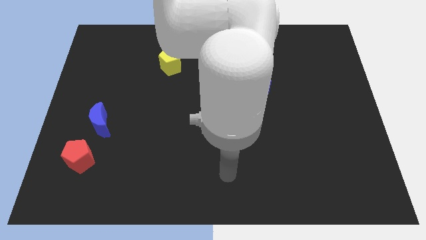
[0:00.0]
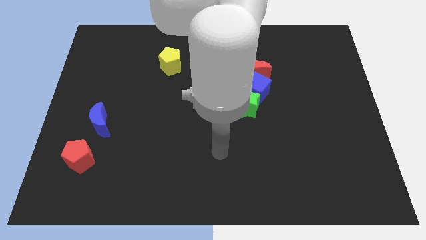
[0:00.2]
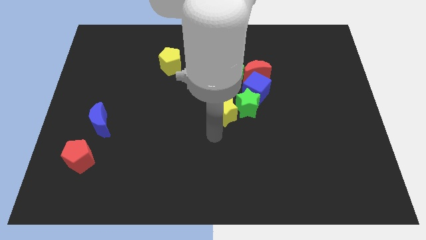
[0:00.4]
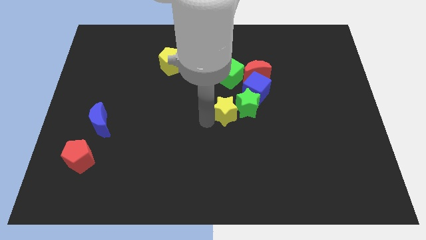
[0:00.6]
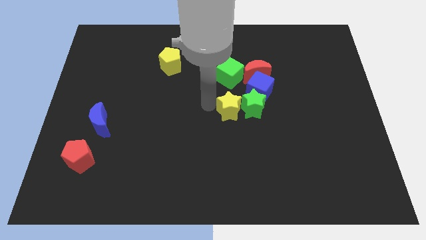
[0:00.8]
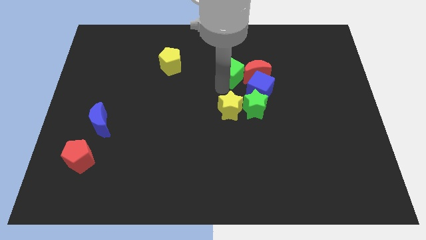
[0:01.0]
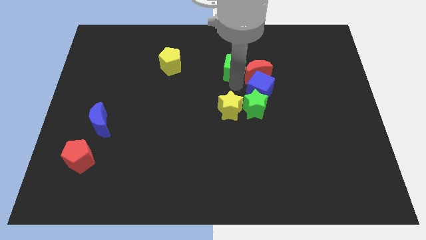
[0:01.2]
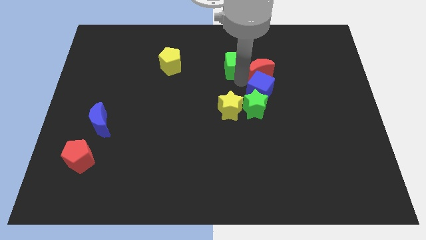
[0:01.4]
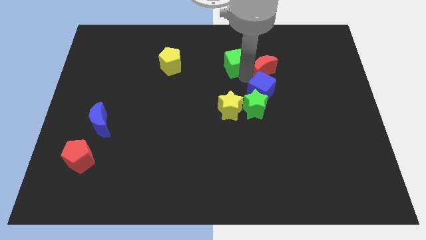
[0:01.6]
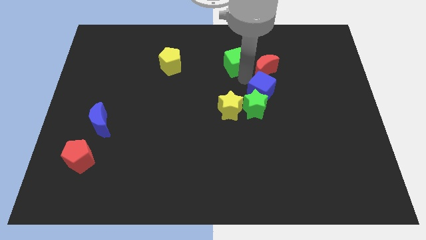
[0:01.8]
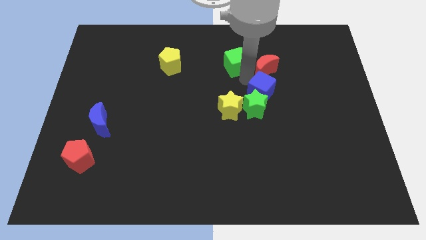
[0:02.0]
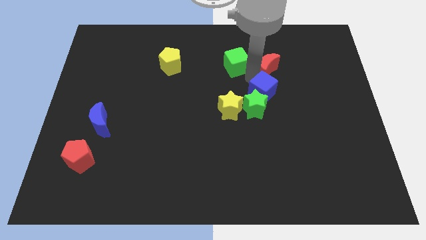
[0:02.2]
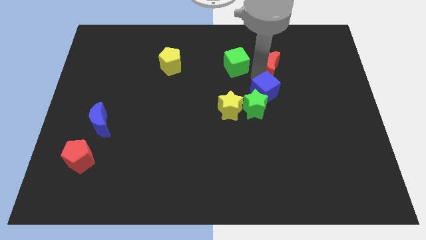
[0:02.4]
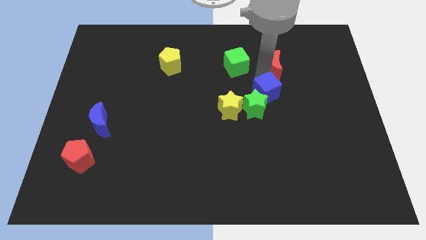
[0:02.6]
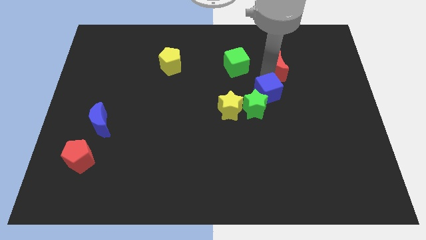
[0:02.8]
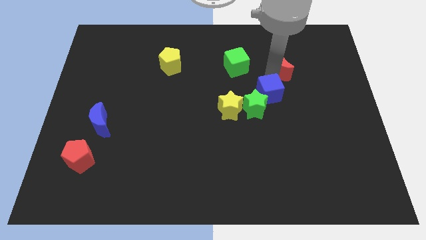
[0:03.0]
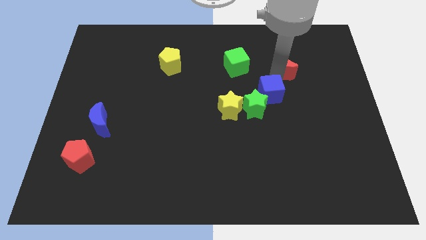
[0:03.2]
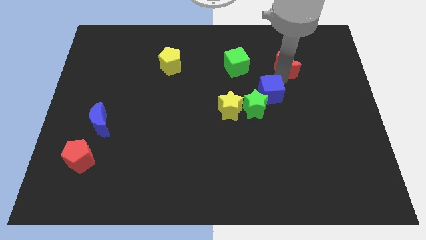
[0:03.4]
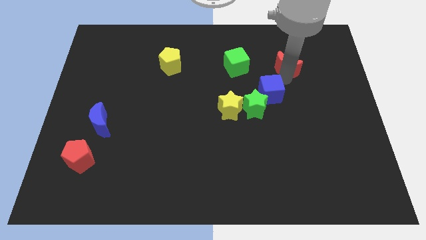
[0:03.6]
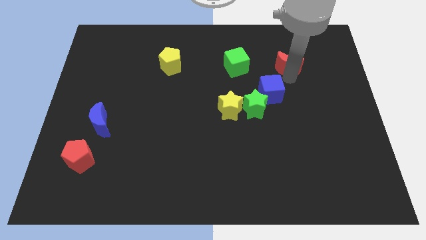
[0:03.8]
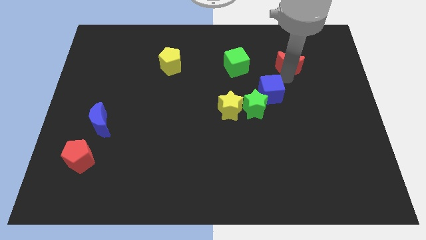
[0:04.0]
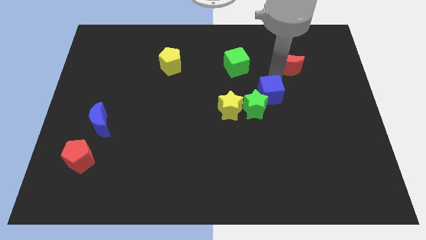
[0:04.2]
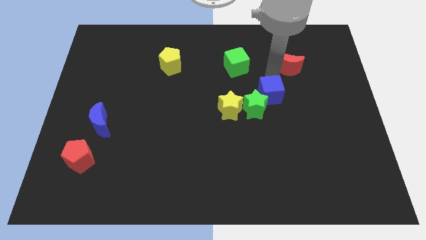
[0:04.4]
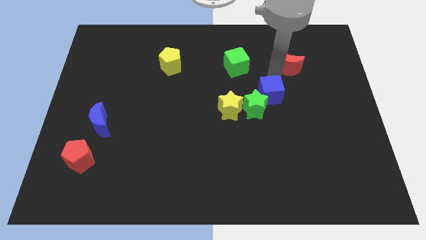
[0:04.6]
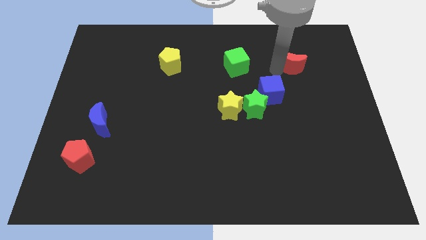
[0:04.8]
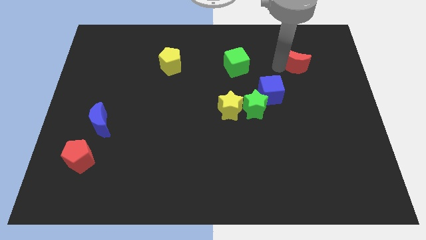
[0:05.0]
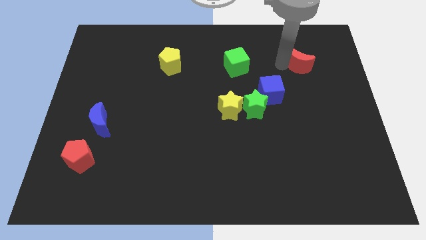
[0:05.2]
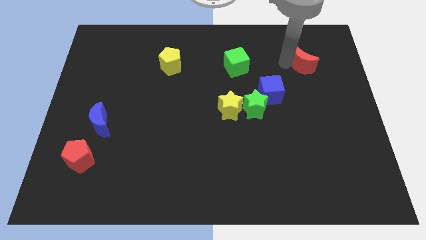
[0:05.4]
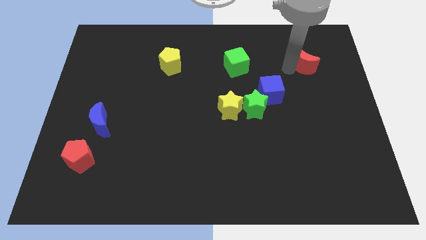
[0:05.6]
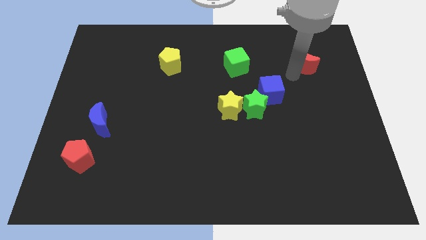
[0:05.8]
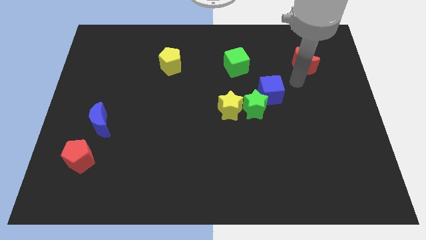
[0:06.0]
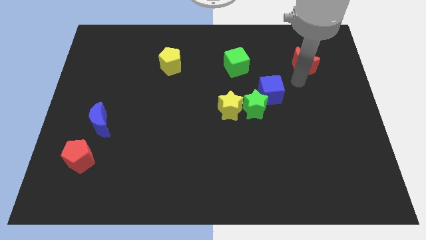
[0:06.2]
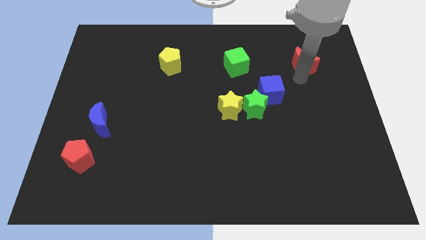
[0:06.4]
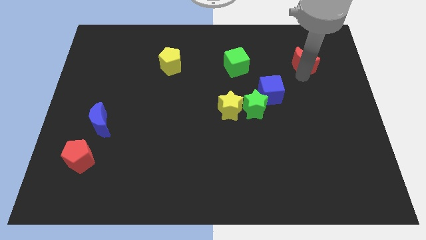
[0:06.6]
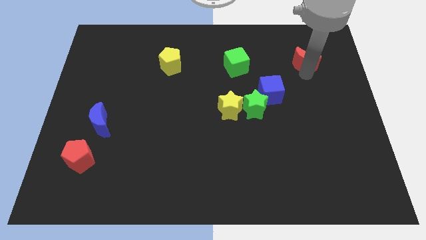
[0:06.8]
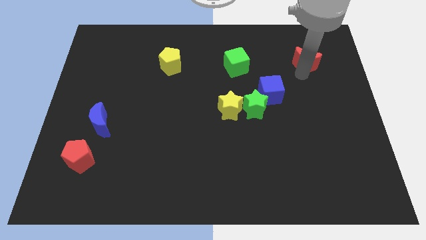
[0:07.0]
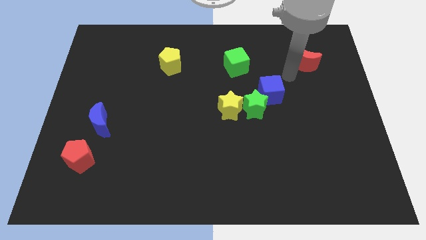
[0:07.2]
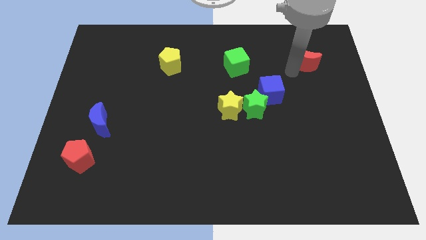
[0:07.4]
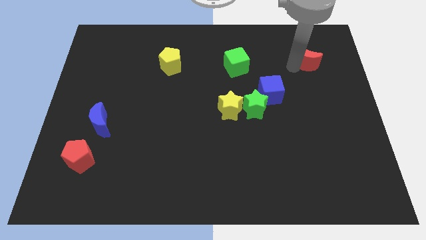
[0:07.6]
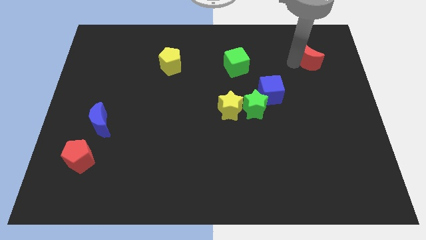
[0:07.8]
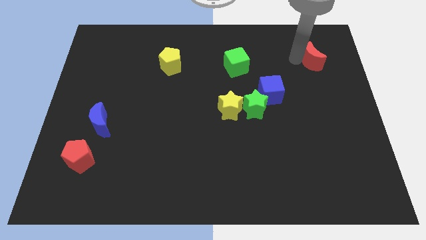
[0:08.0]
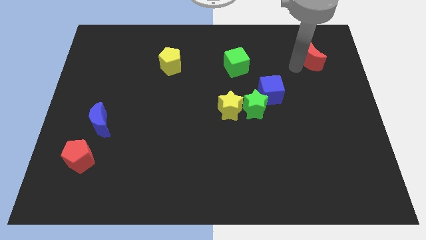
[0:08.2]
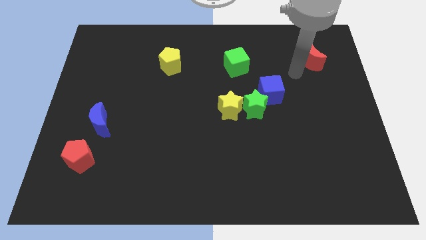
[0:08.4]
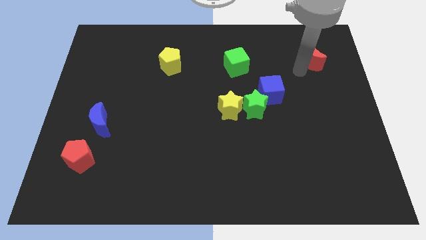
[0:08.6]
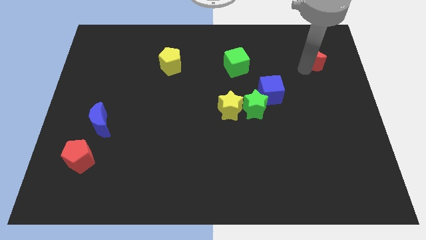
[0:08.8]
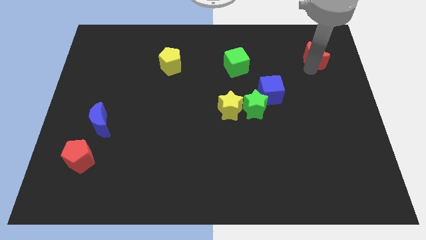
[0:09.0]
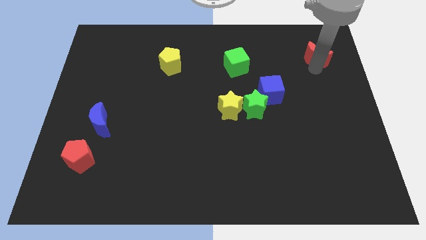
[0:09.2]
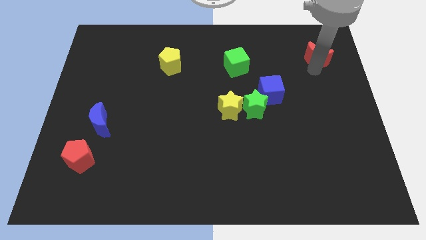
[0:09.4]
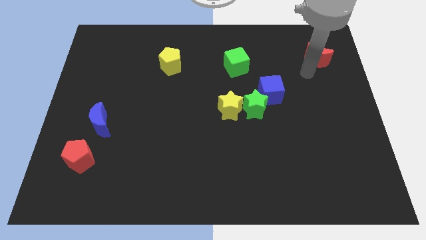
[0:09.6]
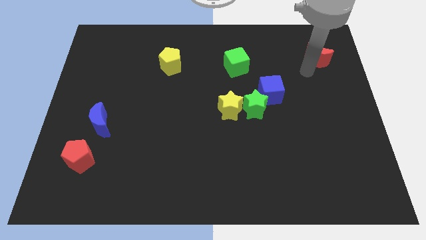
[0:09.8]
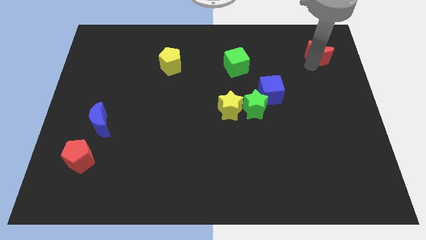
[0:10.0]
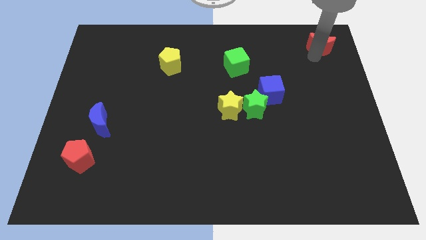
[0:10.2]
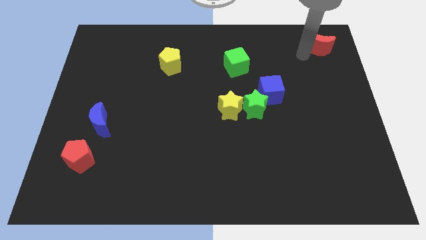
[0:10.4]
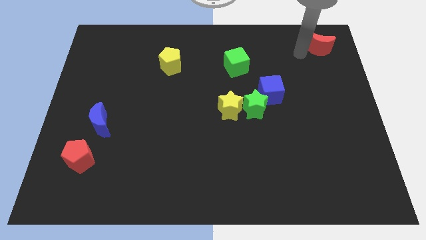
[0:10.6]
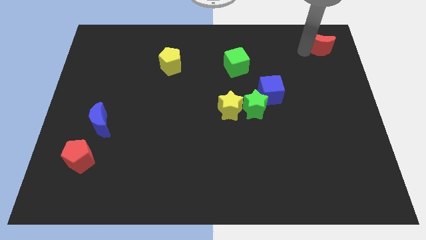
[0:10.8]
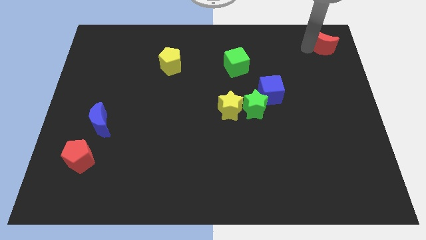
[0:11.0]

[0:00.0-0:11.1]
push the red moon to the upper right corner

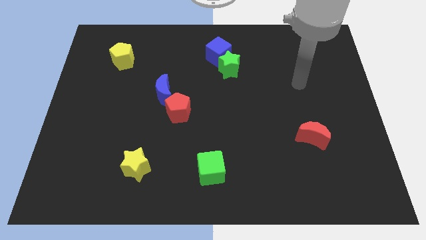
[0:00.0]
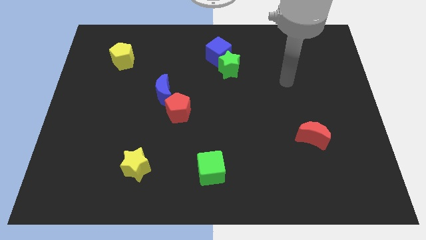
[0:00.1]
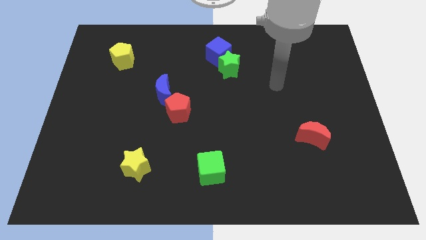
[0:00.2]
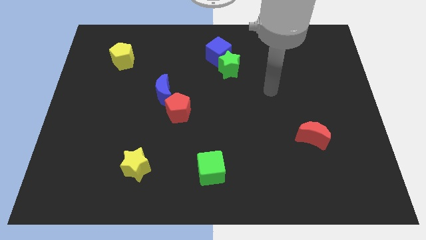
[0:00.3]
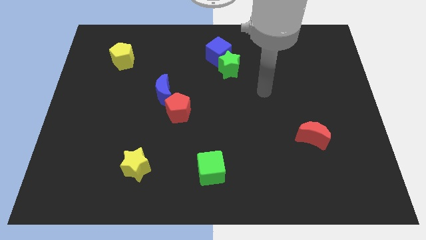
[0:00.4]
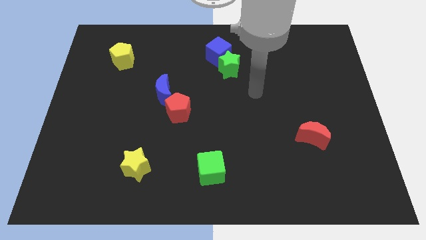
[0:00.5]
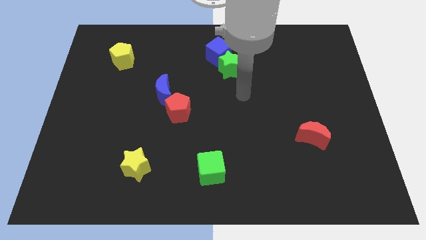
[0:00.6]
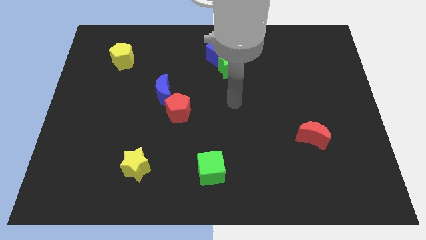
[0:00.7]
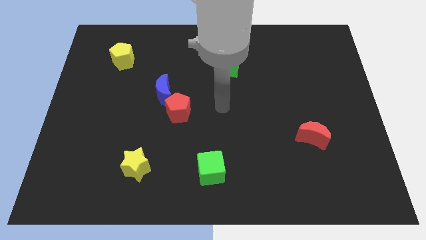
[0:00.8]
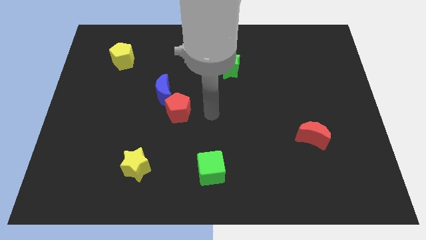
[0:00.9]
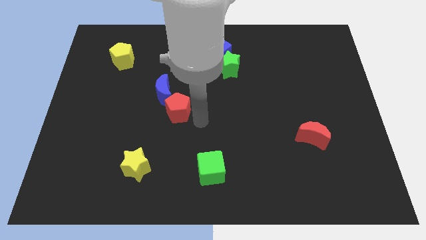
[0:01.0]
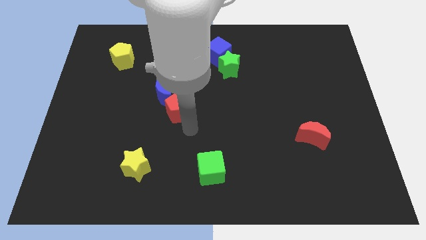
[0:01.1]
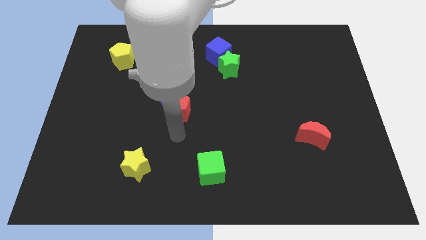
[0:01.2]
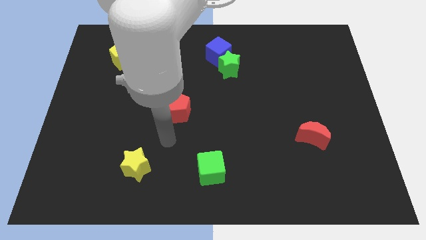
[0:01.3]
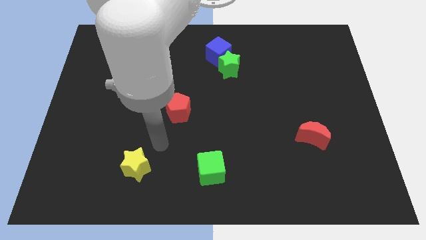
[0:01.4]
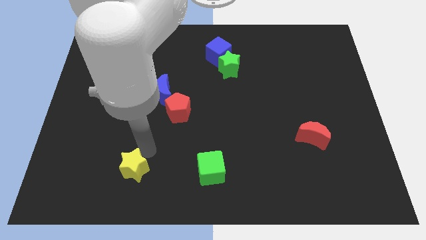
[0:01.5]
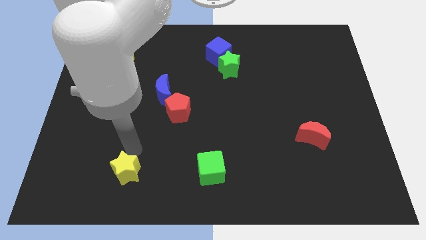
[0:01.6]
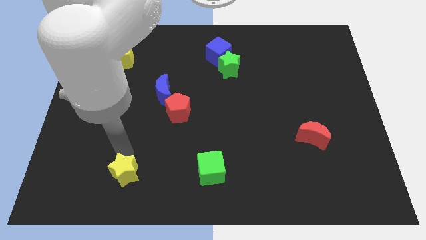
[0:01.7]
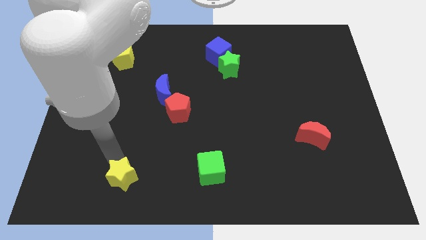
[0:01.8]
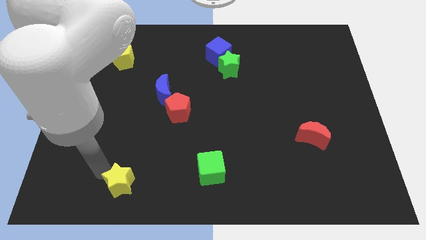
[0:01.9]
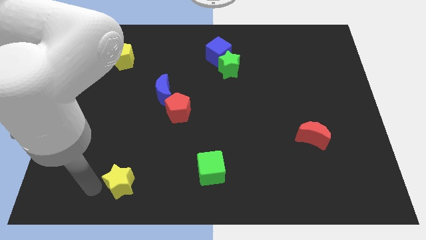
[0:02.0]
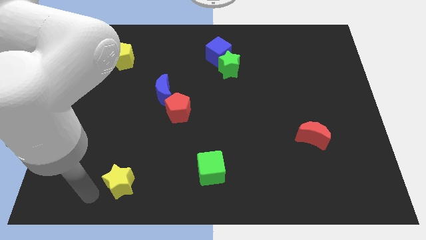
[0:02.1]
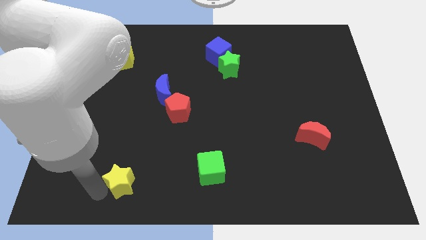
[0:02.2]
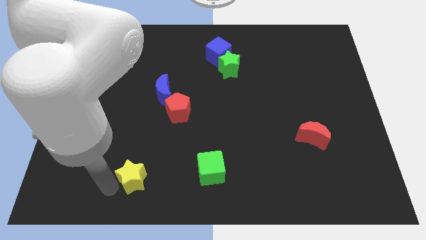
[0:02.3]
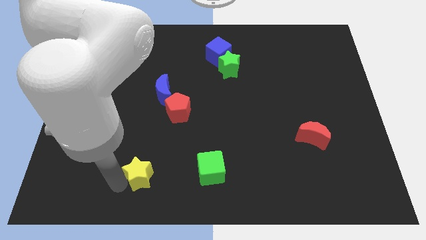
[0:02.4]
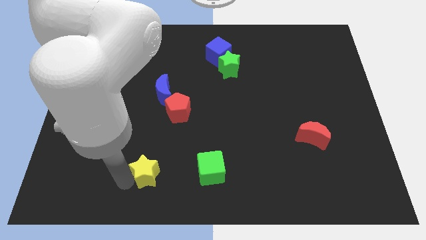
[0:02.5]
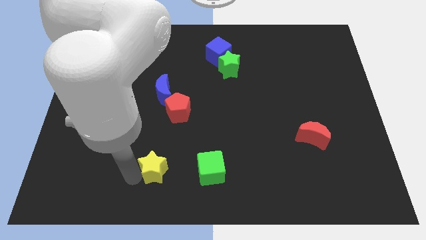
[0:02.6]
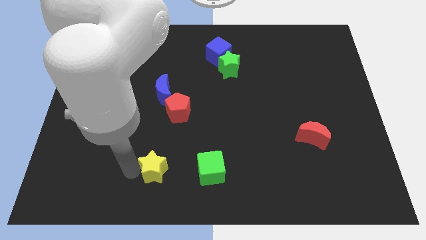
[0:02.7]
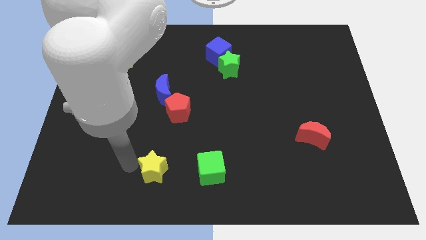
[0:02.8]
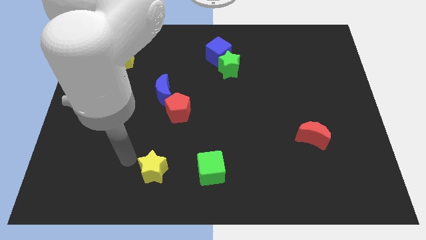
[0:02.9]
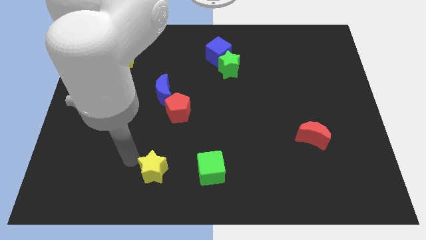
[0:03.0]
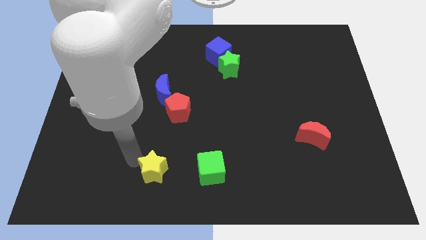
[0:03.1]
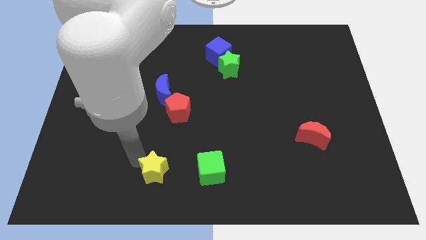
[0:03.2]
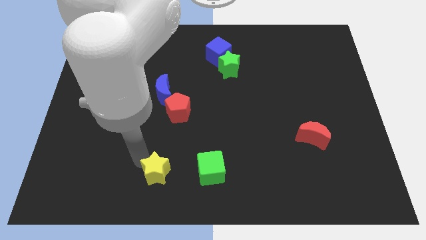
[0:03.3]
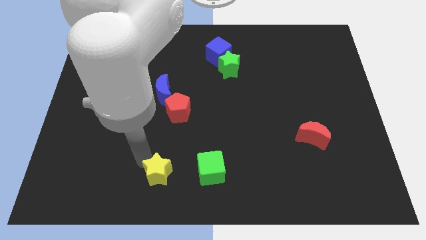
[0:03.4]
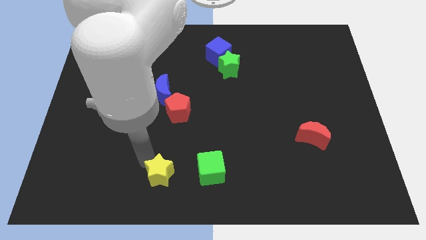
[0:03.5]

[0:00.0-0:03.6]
move the yellow star to the bottom
